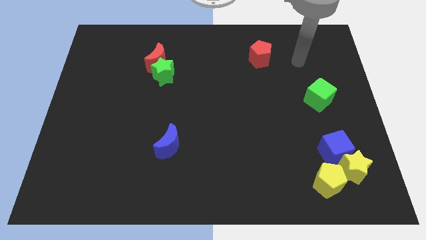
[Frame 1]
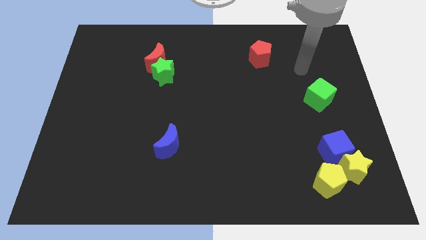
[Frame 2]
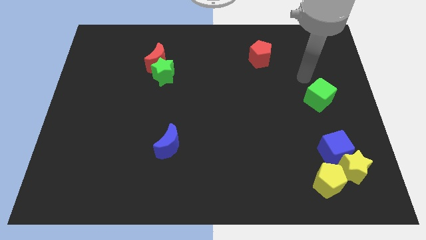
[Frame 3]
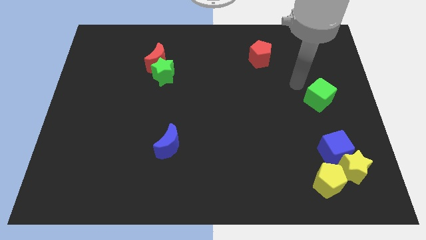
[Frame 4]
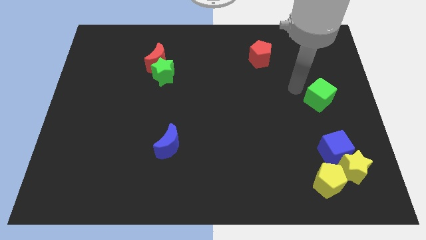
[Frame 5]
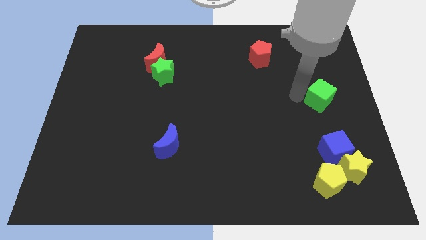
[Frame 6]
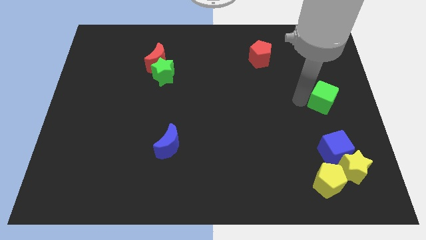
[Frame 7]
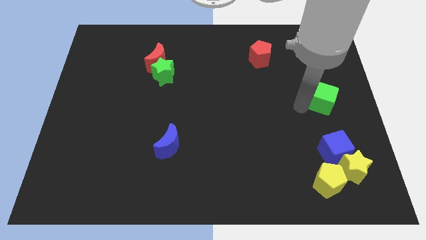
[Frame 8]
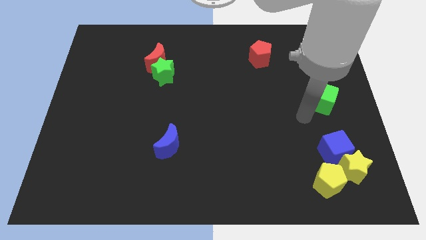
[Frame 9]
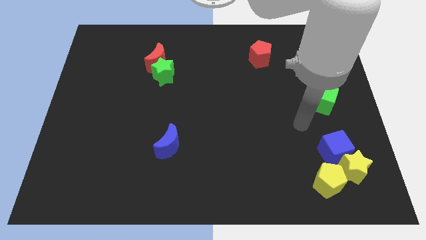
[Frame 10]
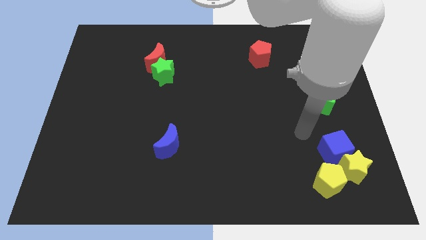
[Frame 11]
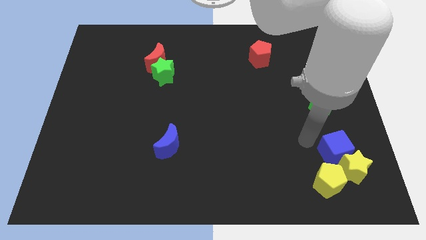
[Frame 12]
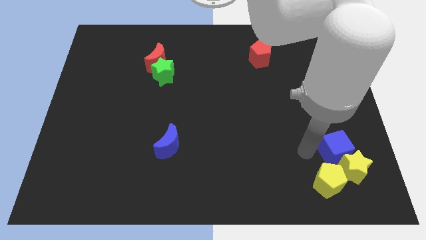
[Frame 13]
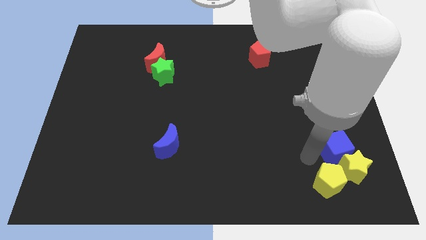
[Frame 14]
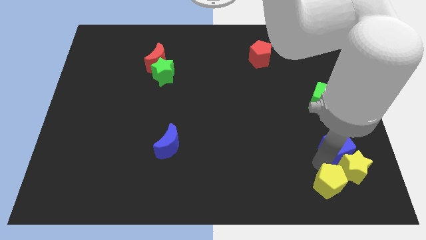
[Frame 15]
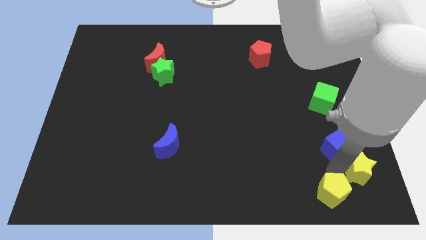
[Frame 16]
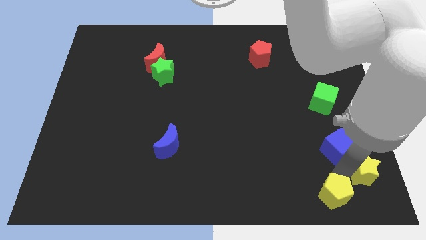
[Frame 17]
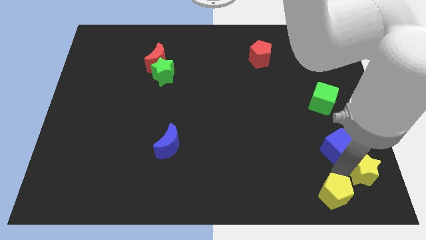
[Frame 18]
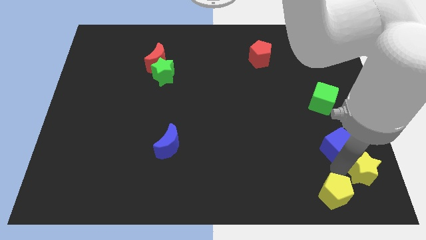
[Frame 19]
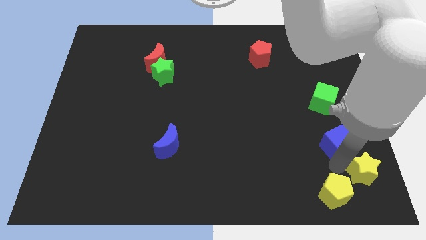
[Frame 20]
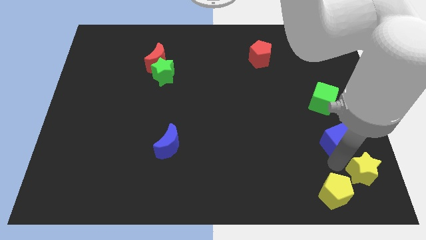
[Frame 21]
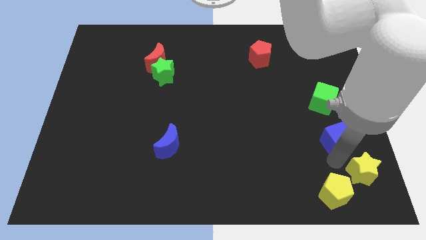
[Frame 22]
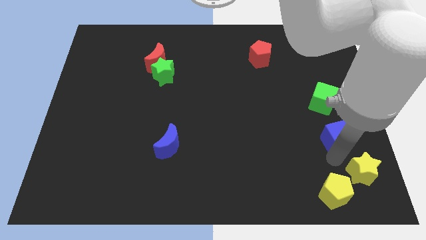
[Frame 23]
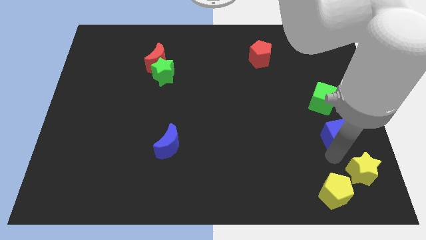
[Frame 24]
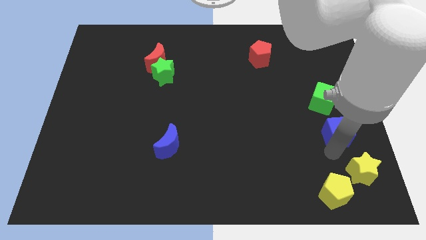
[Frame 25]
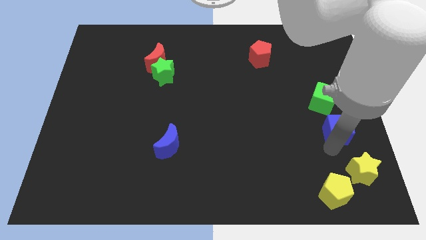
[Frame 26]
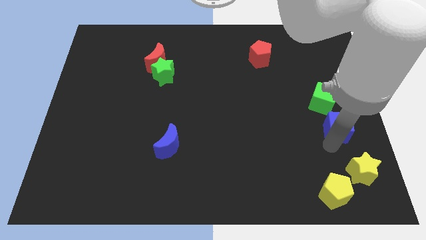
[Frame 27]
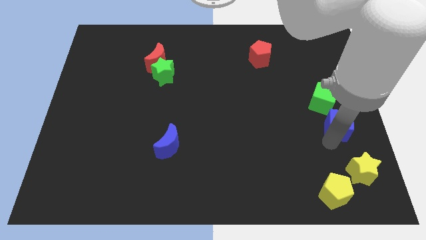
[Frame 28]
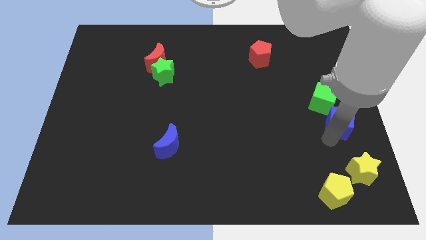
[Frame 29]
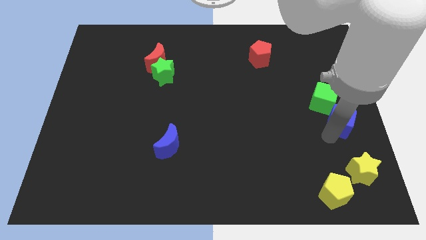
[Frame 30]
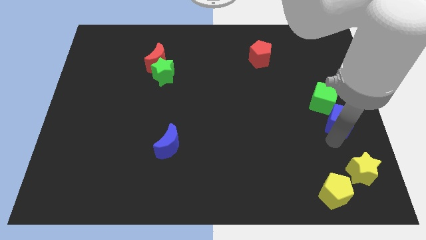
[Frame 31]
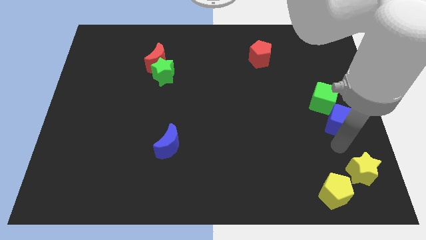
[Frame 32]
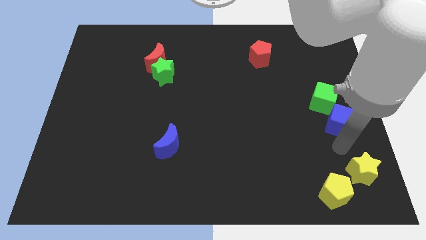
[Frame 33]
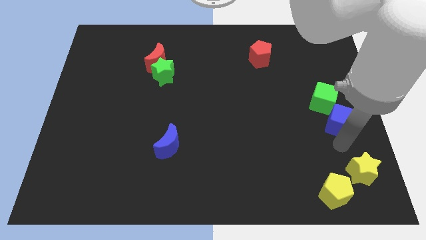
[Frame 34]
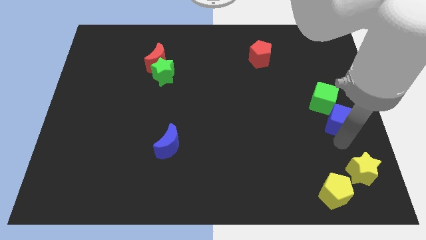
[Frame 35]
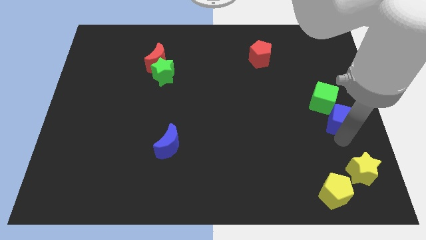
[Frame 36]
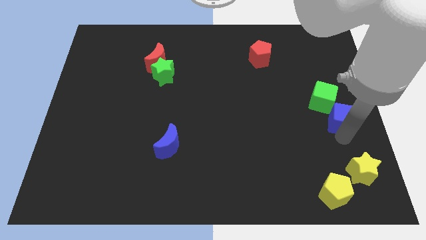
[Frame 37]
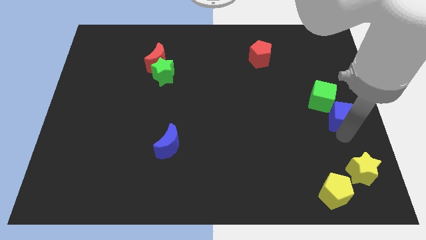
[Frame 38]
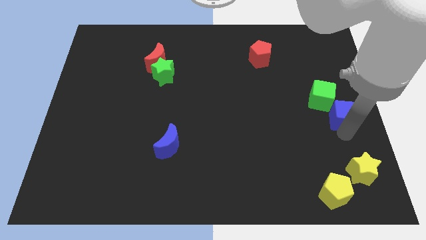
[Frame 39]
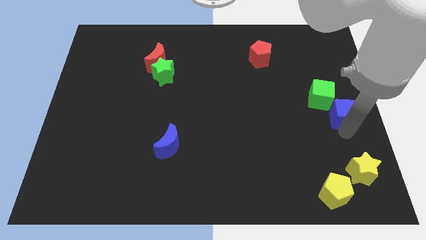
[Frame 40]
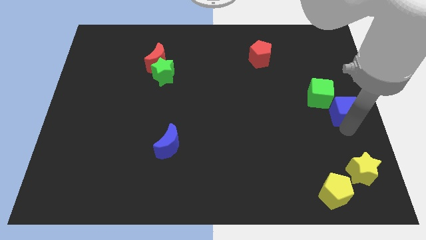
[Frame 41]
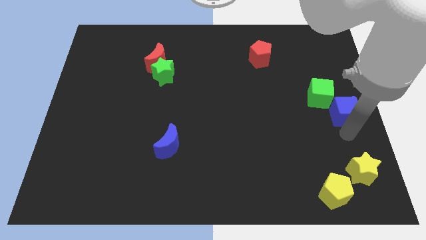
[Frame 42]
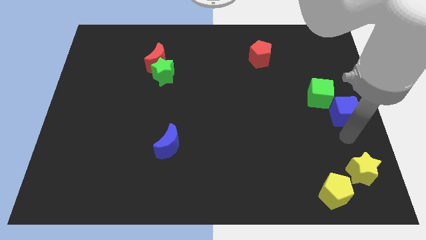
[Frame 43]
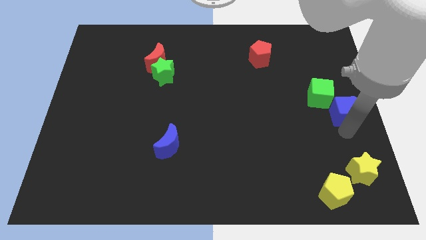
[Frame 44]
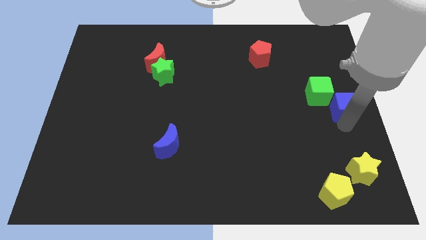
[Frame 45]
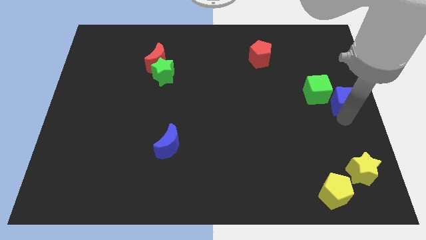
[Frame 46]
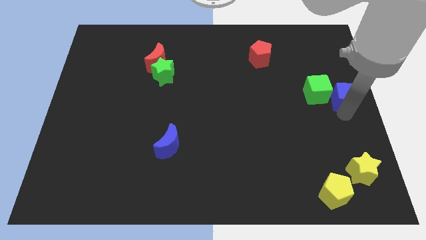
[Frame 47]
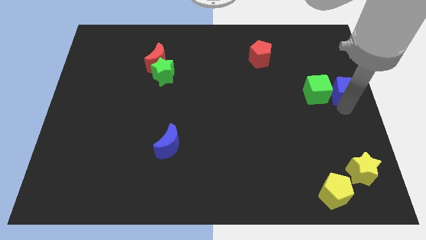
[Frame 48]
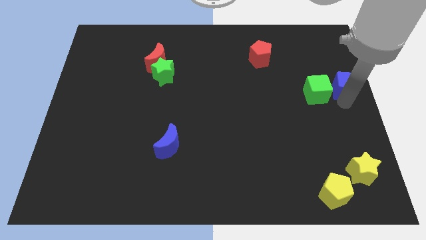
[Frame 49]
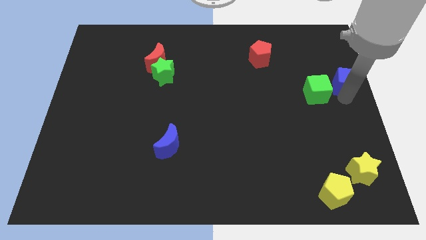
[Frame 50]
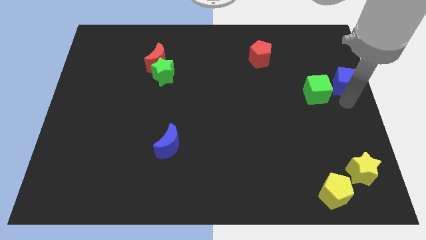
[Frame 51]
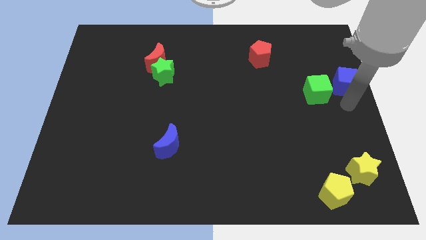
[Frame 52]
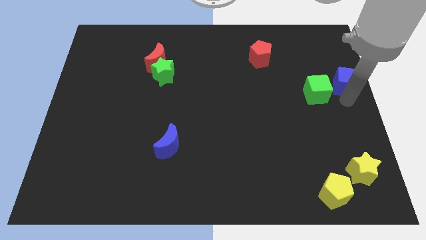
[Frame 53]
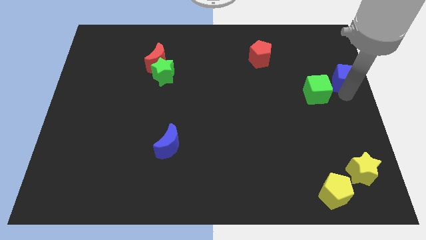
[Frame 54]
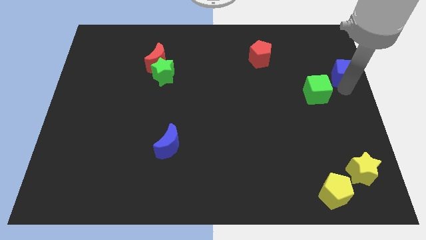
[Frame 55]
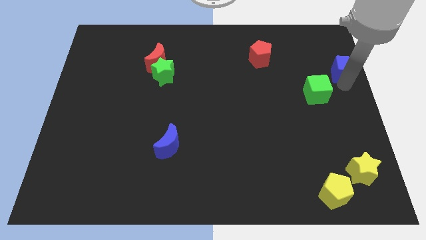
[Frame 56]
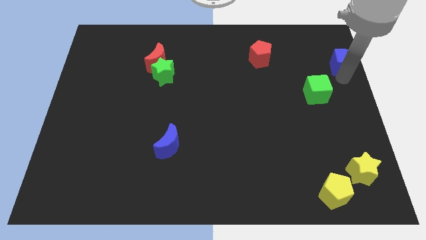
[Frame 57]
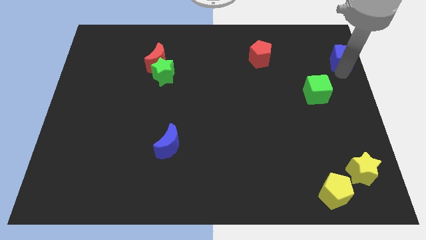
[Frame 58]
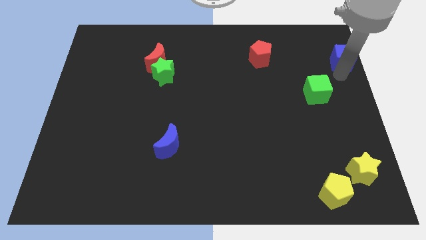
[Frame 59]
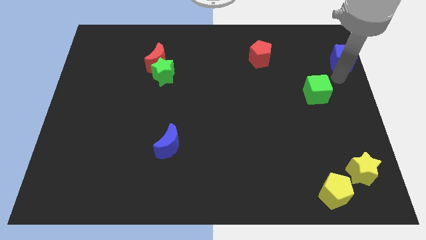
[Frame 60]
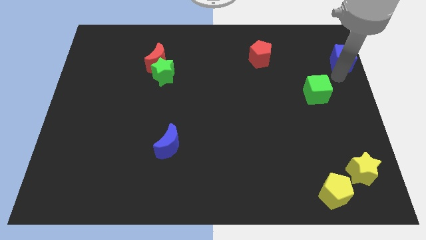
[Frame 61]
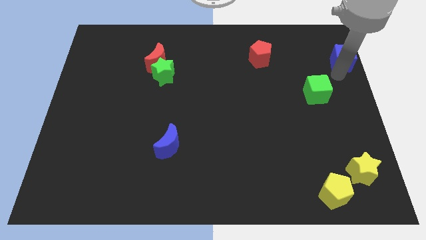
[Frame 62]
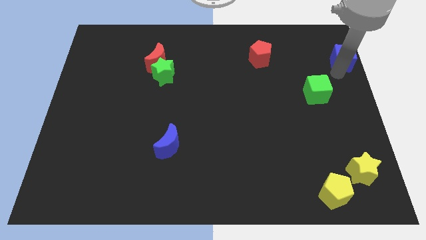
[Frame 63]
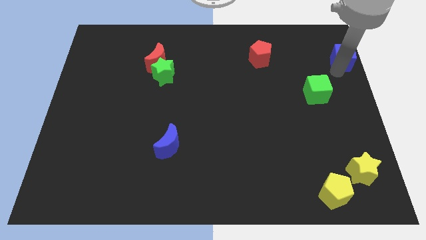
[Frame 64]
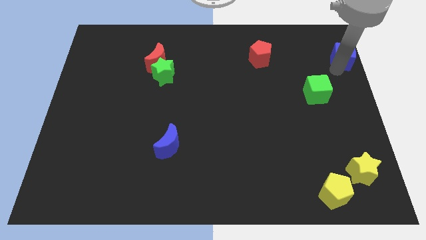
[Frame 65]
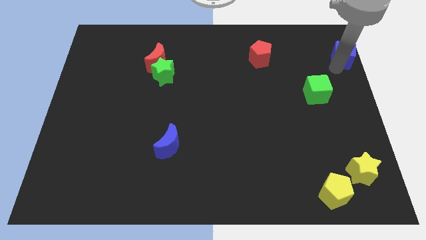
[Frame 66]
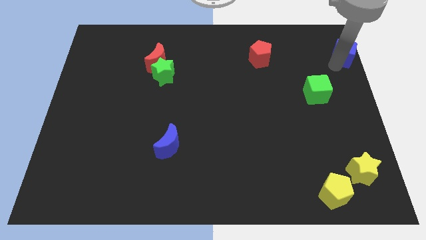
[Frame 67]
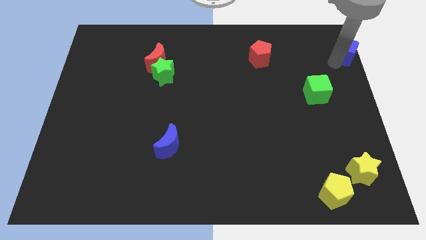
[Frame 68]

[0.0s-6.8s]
slide the blue cube to the top right corner
